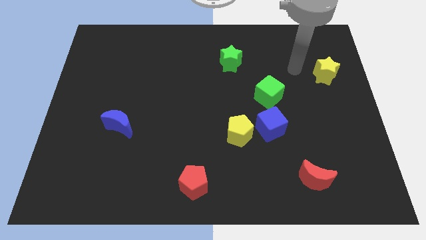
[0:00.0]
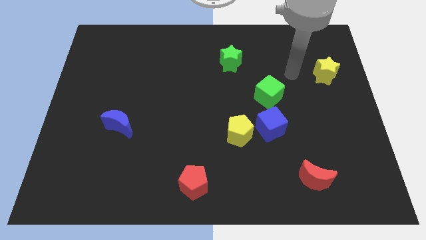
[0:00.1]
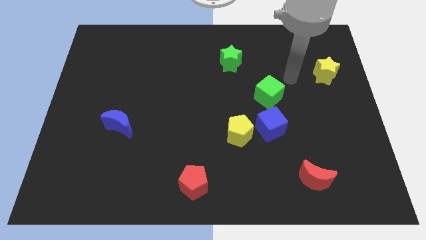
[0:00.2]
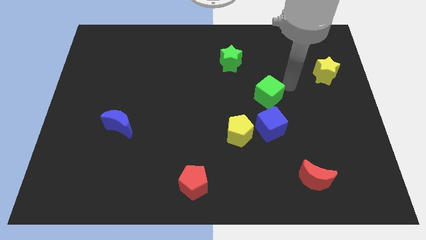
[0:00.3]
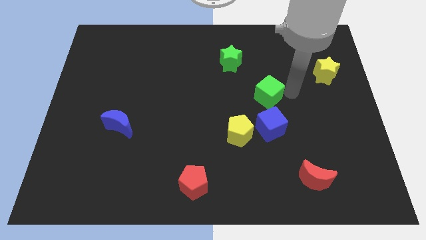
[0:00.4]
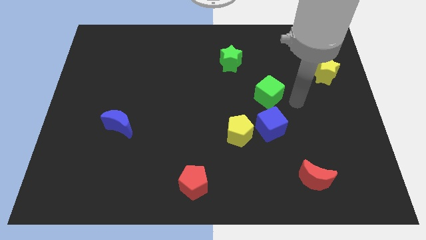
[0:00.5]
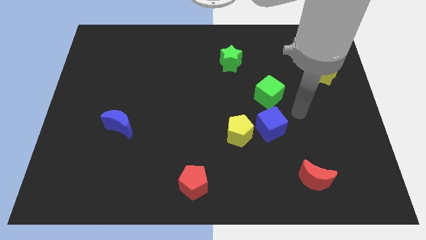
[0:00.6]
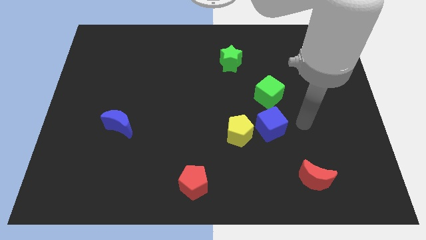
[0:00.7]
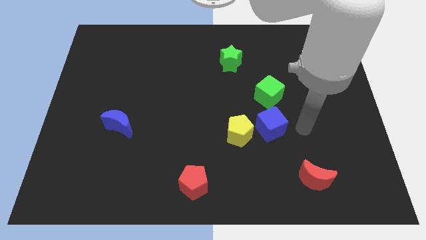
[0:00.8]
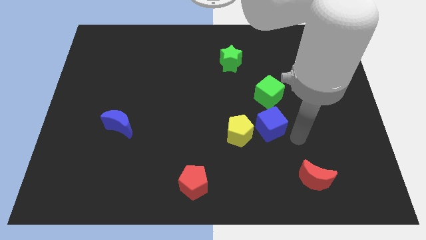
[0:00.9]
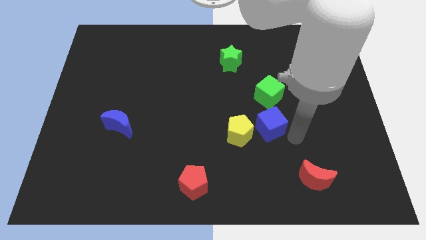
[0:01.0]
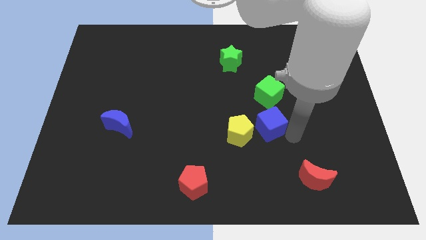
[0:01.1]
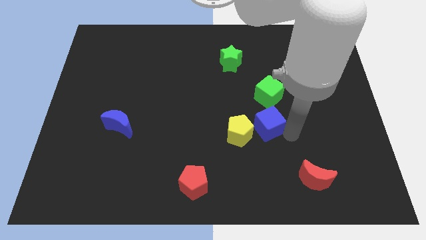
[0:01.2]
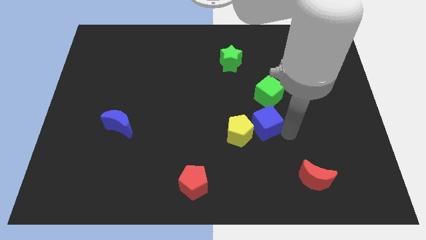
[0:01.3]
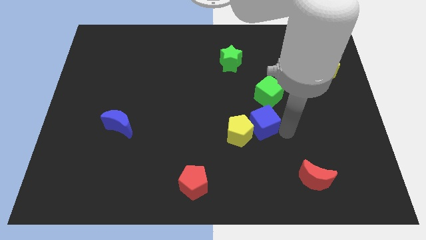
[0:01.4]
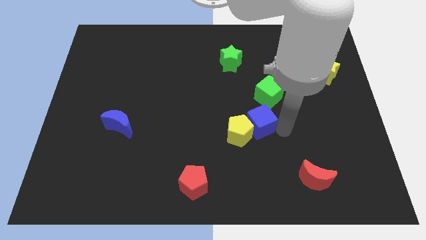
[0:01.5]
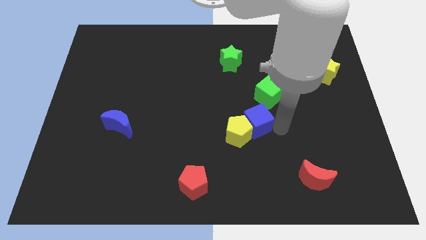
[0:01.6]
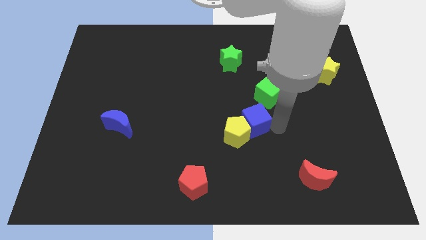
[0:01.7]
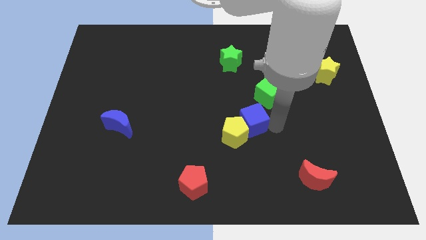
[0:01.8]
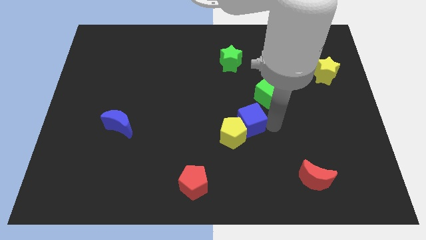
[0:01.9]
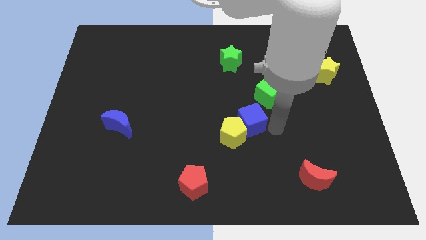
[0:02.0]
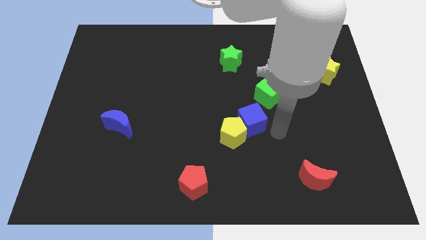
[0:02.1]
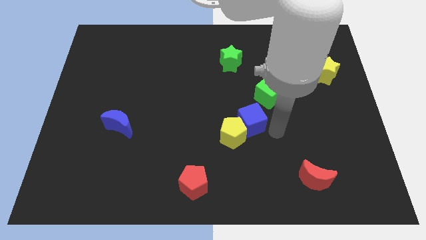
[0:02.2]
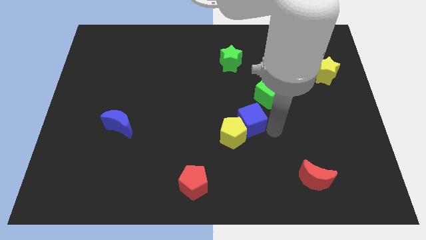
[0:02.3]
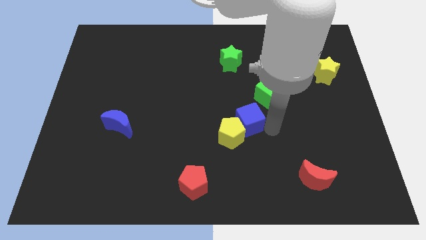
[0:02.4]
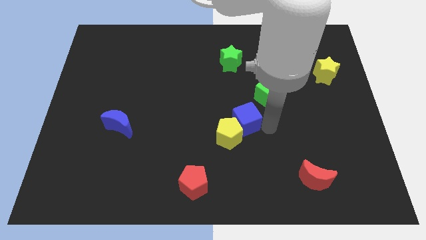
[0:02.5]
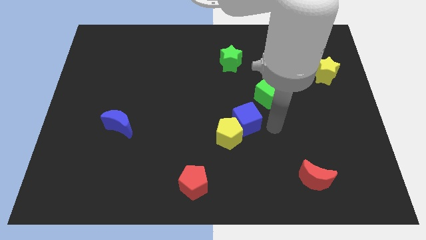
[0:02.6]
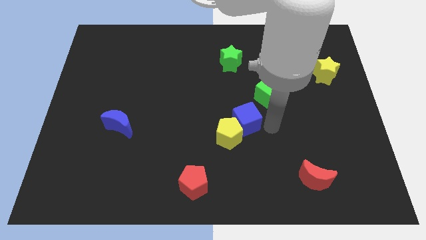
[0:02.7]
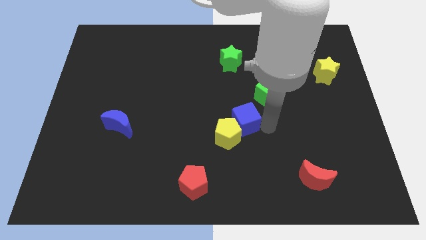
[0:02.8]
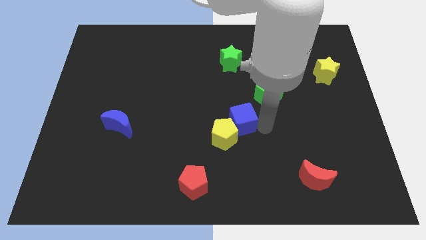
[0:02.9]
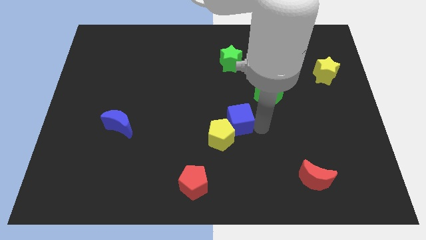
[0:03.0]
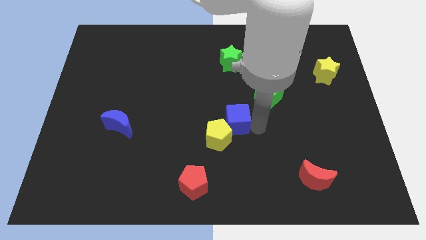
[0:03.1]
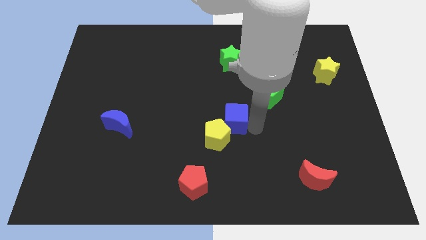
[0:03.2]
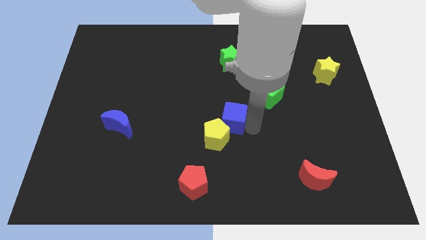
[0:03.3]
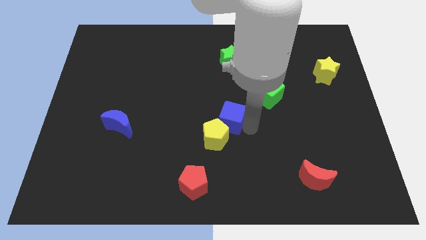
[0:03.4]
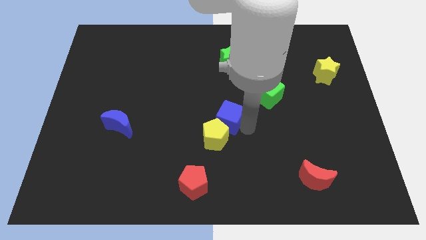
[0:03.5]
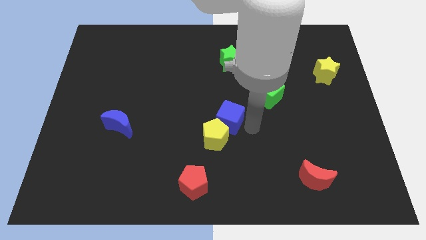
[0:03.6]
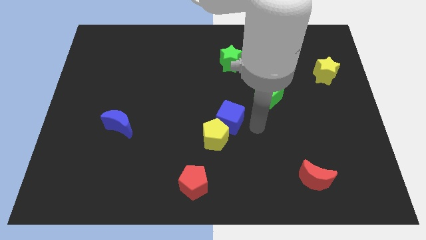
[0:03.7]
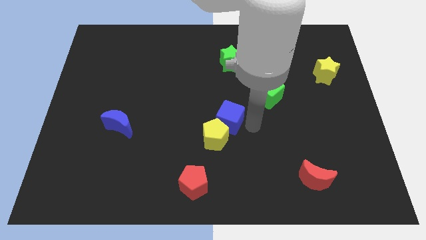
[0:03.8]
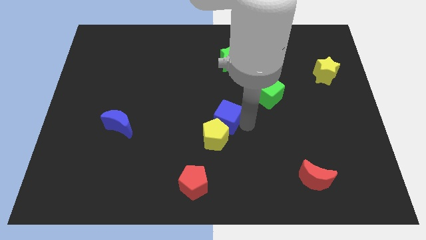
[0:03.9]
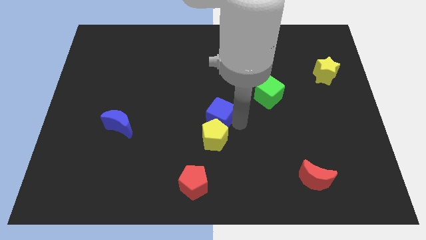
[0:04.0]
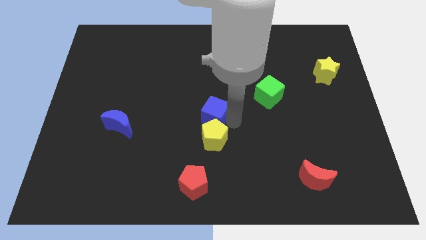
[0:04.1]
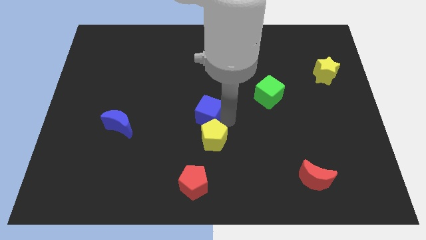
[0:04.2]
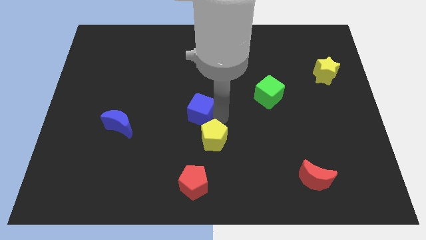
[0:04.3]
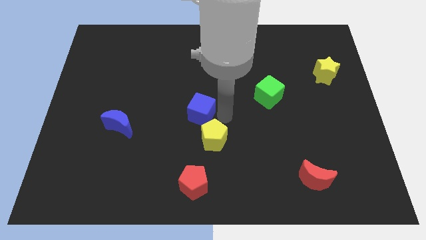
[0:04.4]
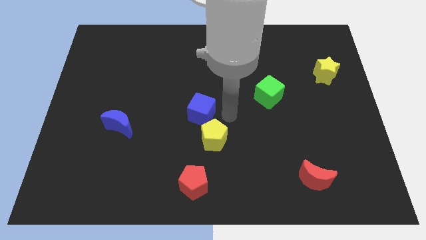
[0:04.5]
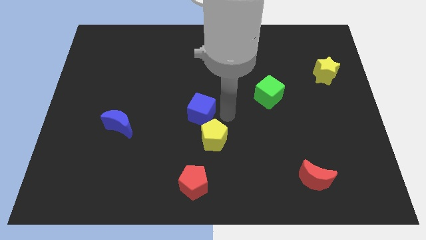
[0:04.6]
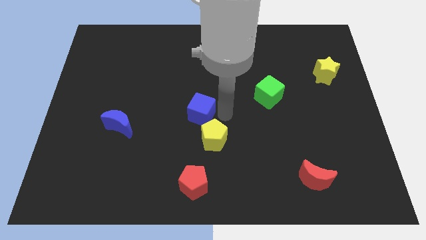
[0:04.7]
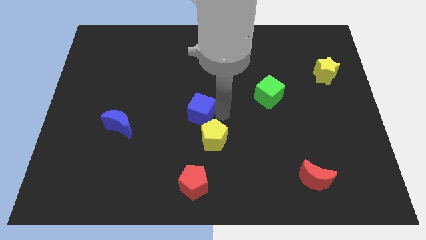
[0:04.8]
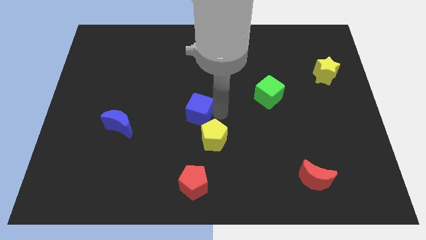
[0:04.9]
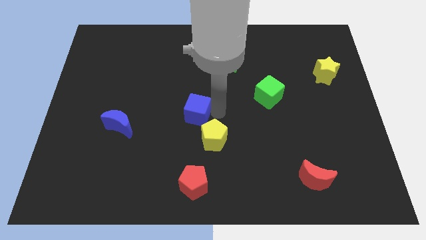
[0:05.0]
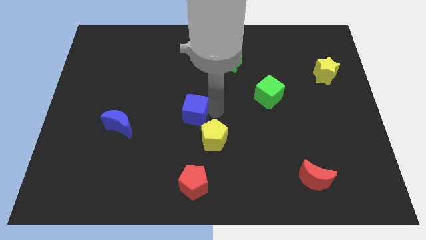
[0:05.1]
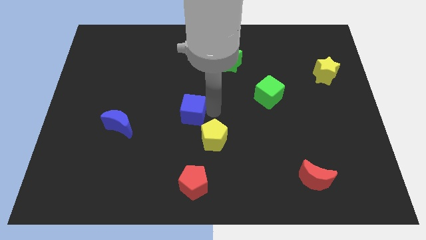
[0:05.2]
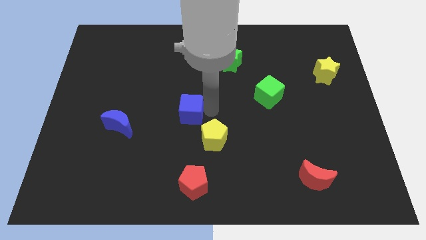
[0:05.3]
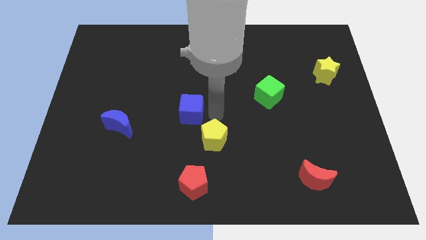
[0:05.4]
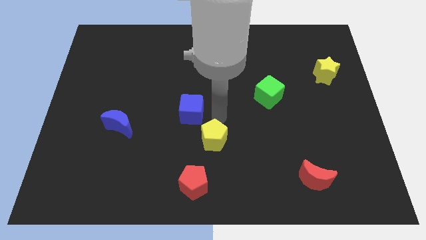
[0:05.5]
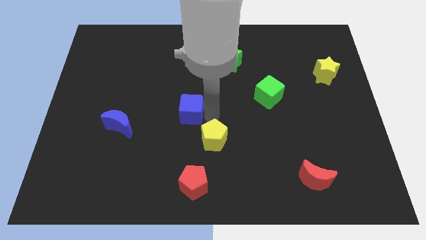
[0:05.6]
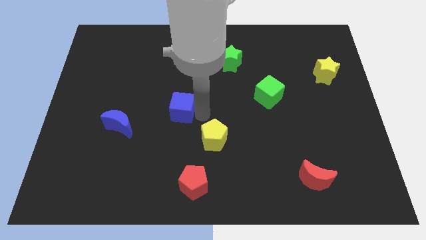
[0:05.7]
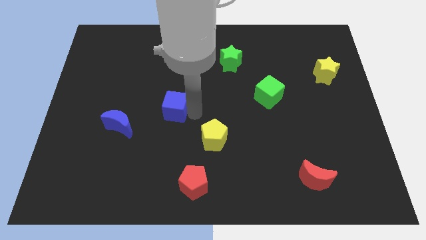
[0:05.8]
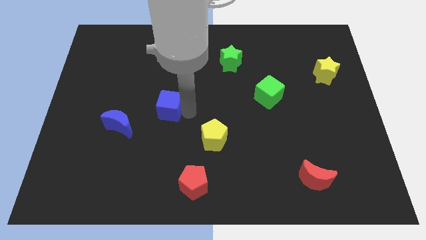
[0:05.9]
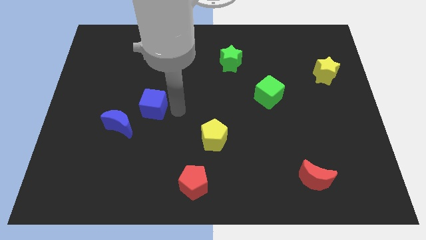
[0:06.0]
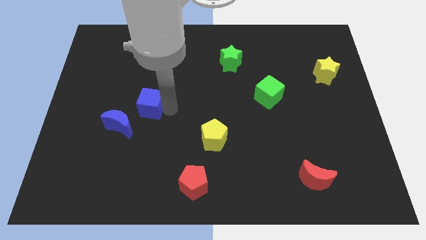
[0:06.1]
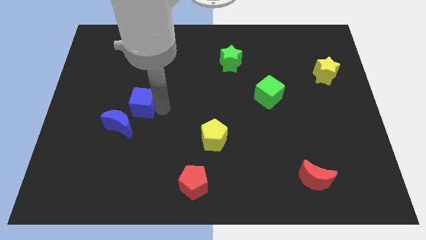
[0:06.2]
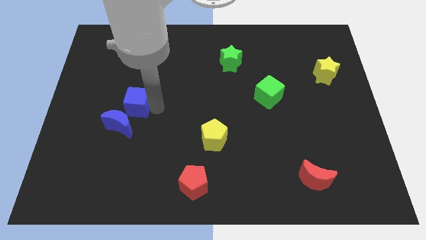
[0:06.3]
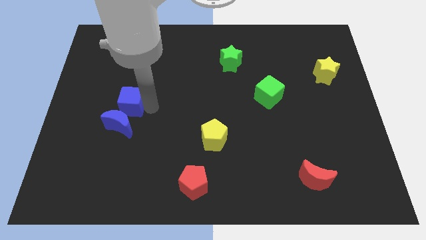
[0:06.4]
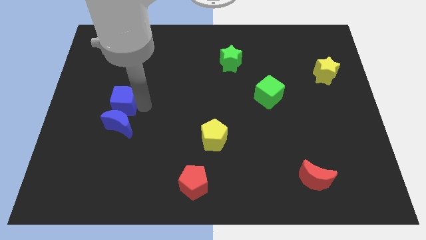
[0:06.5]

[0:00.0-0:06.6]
push the blue cube to the top left side of the blue moon

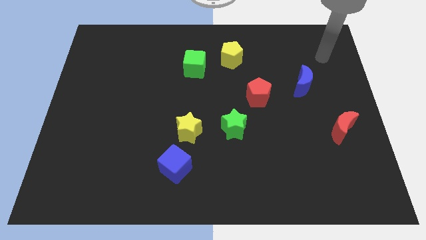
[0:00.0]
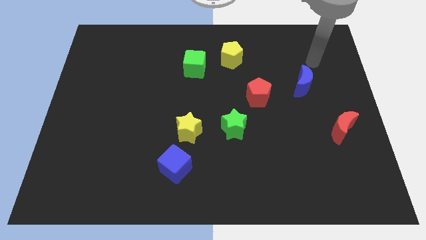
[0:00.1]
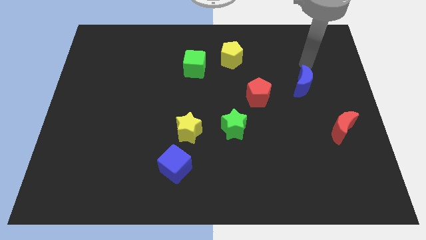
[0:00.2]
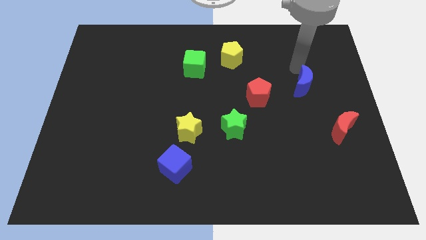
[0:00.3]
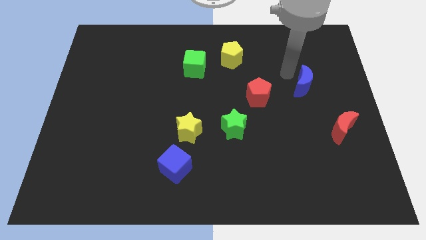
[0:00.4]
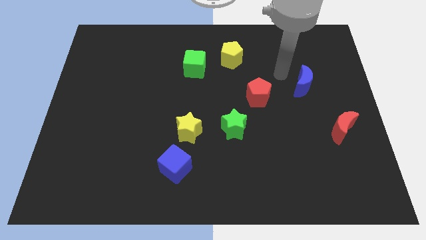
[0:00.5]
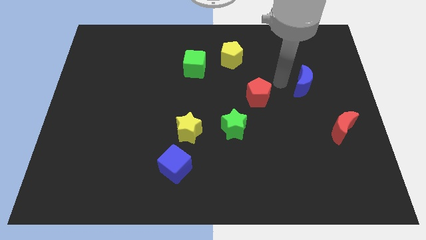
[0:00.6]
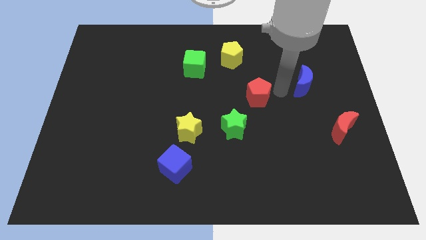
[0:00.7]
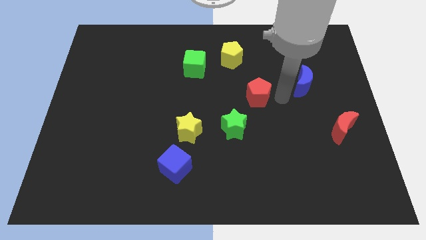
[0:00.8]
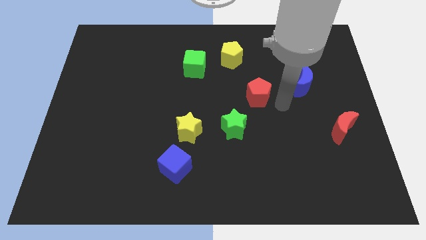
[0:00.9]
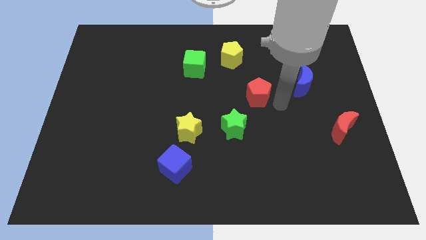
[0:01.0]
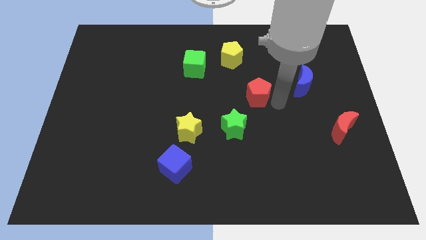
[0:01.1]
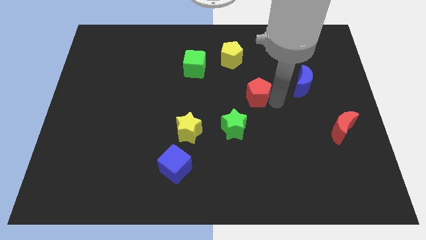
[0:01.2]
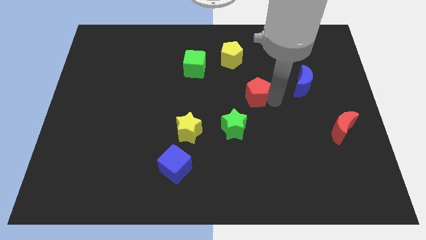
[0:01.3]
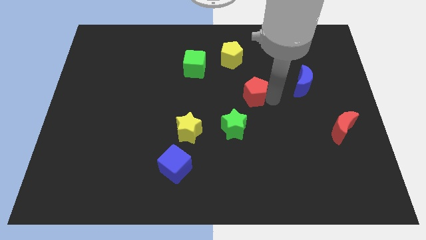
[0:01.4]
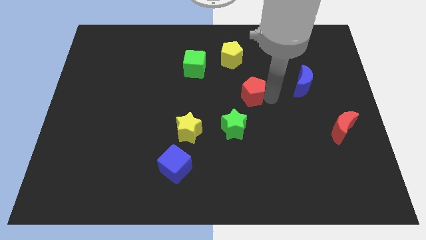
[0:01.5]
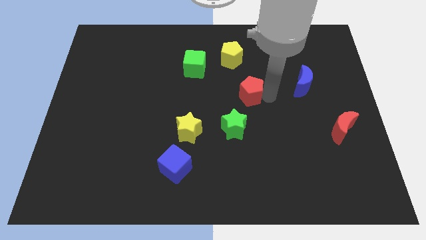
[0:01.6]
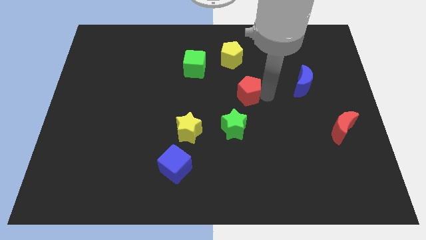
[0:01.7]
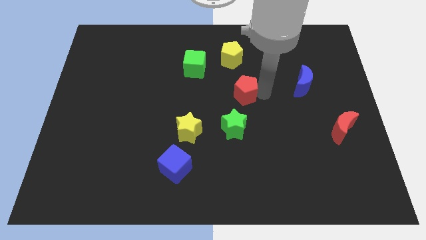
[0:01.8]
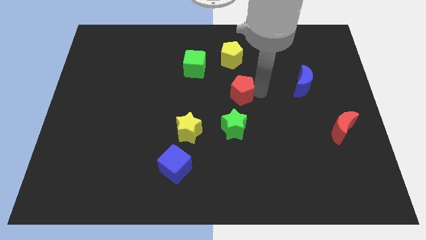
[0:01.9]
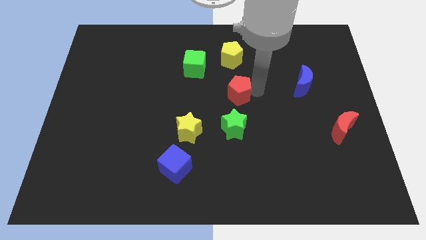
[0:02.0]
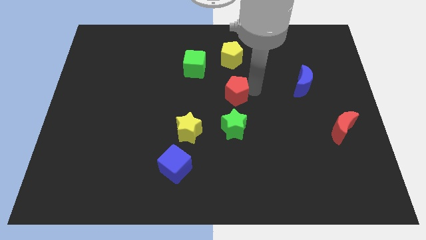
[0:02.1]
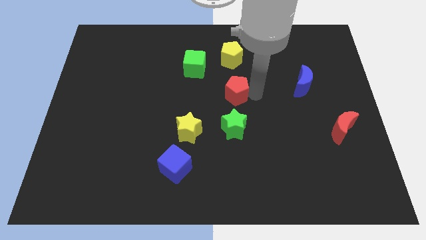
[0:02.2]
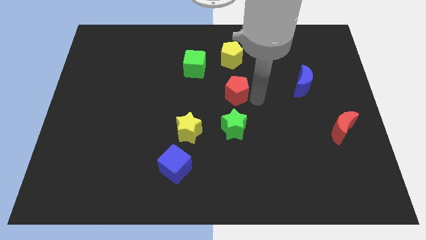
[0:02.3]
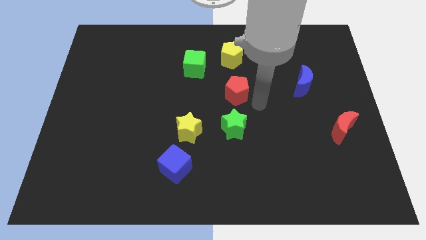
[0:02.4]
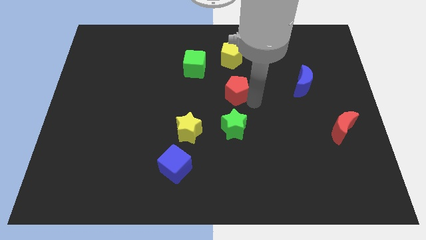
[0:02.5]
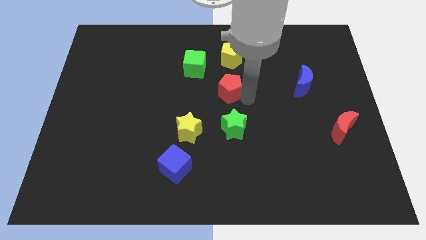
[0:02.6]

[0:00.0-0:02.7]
put the red pentagon to the bottom right side of the green cube
